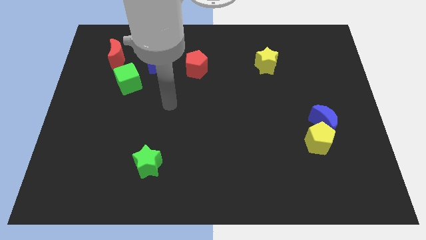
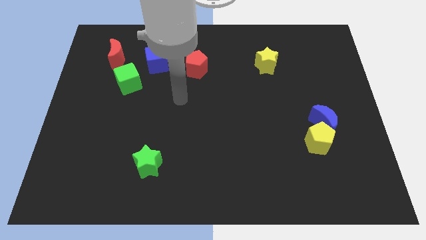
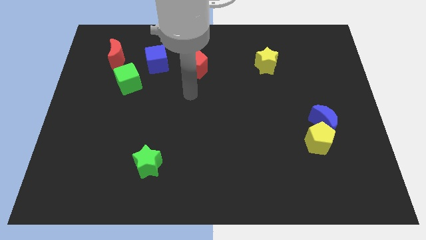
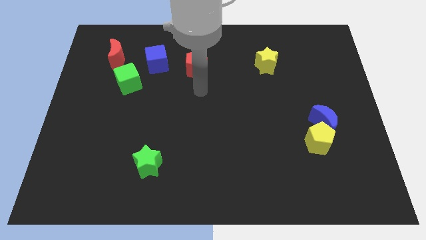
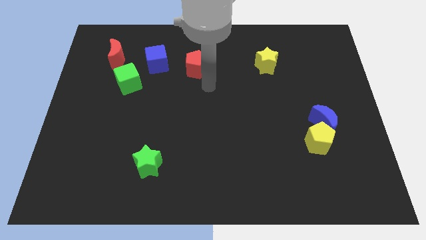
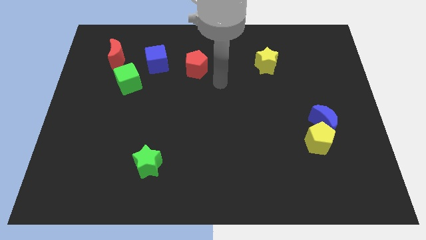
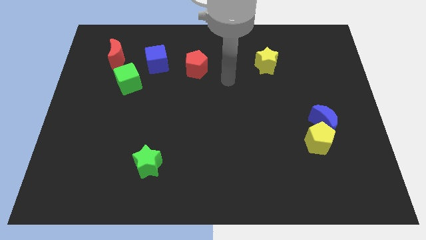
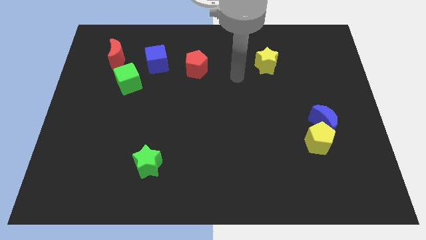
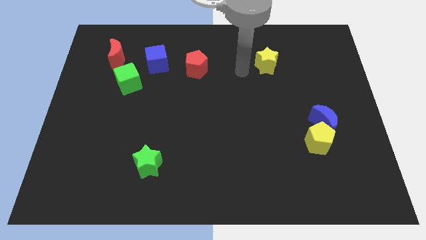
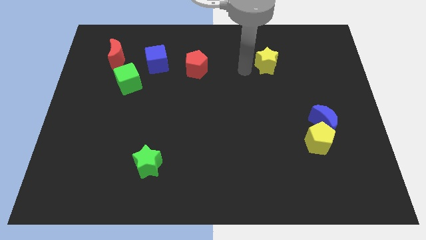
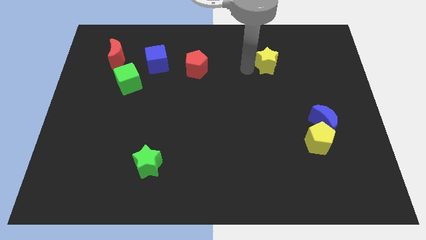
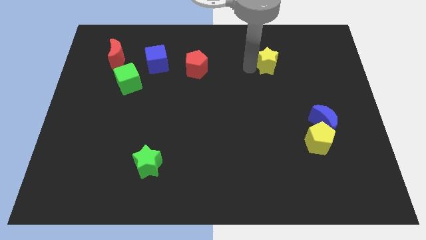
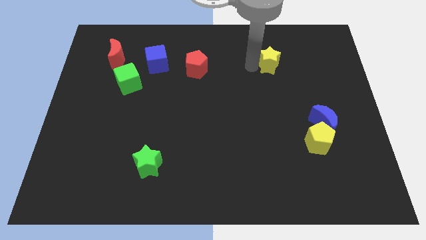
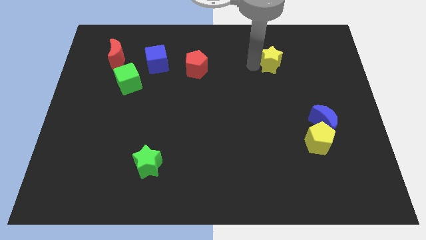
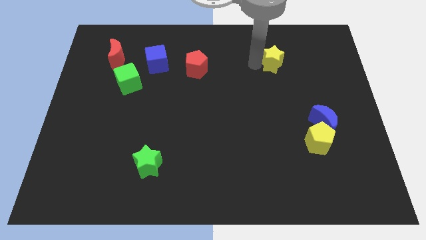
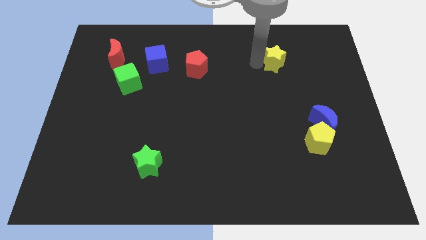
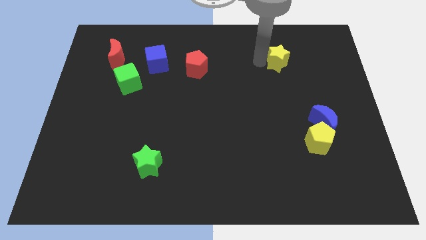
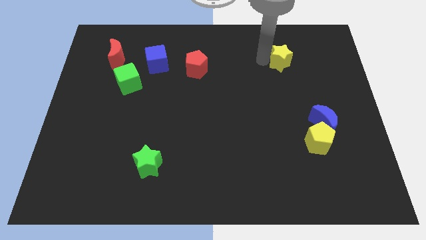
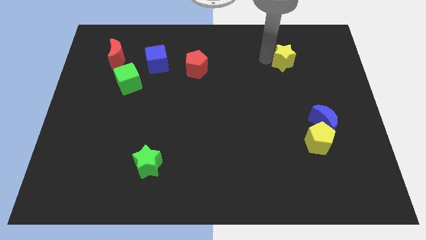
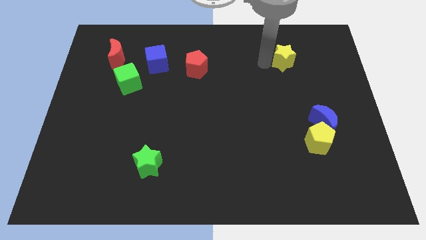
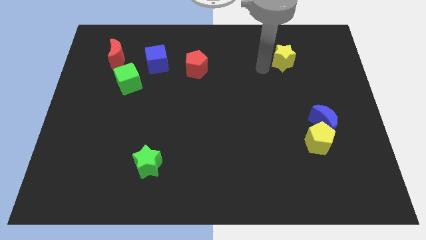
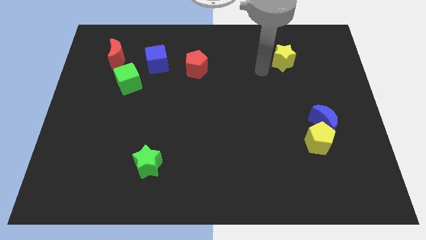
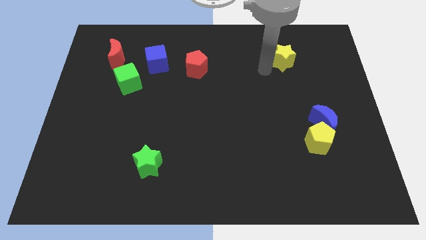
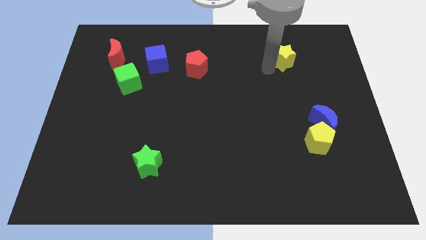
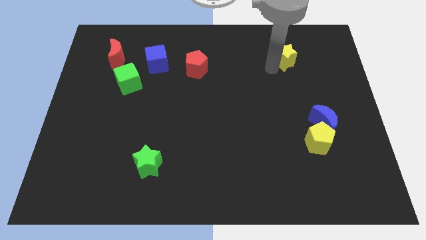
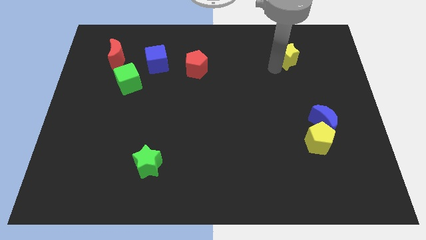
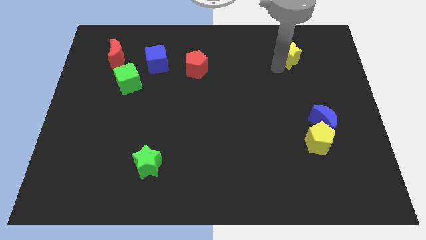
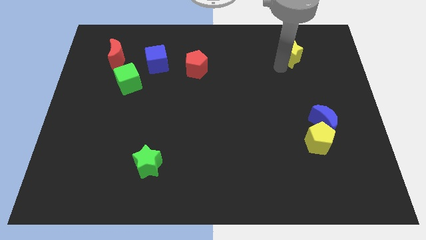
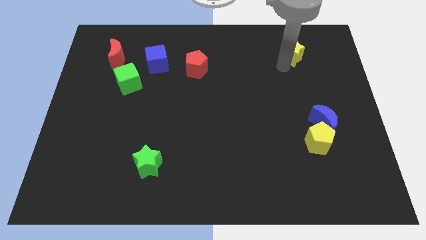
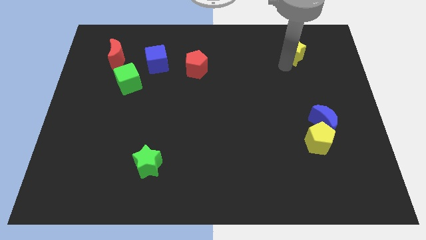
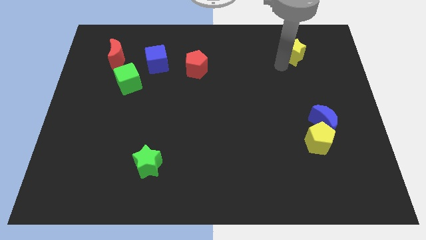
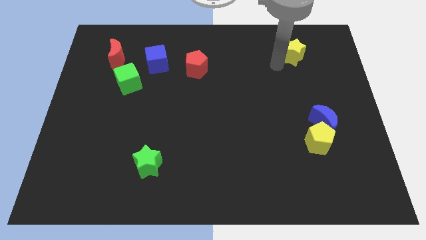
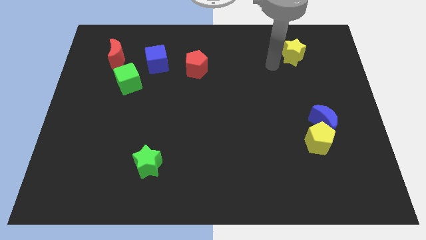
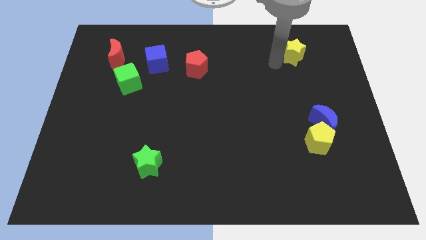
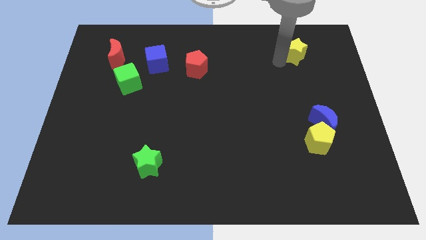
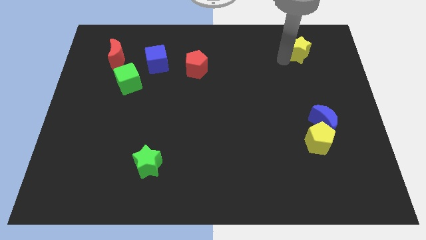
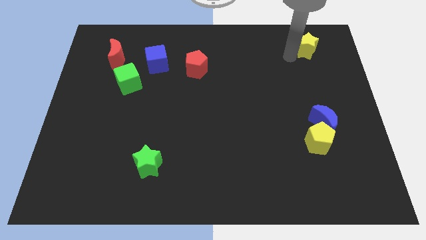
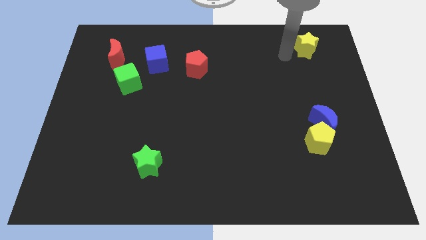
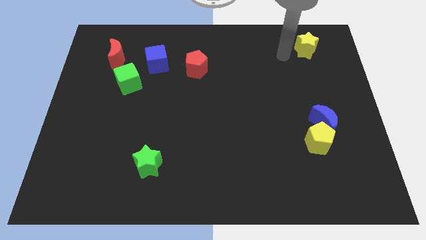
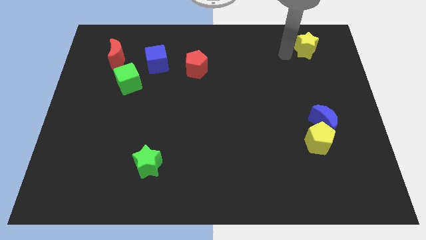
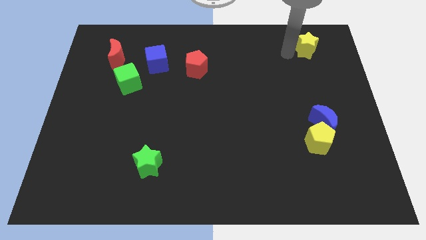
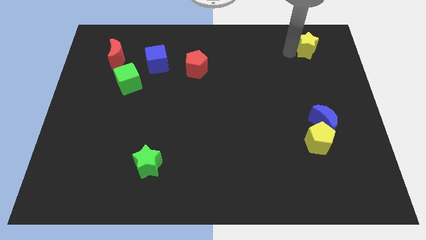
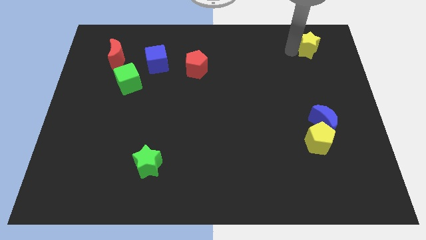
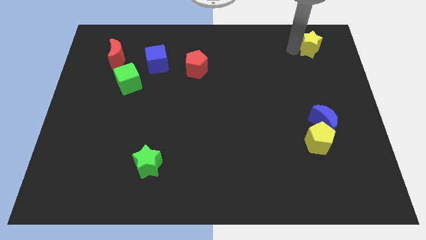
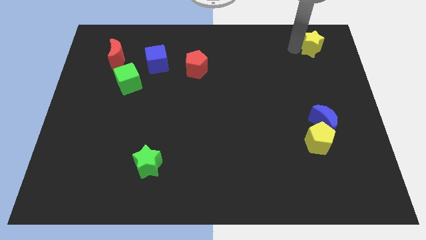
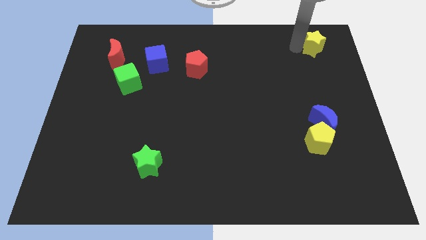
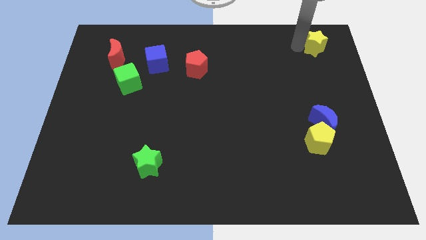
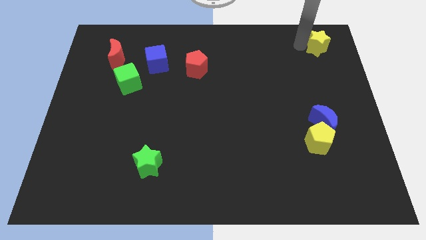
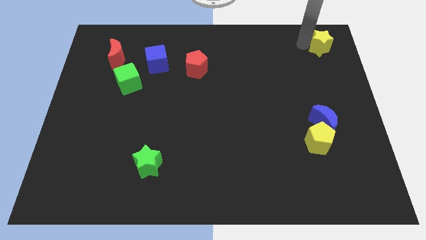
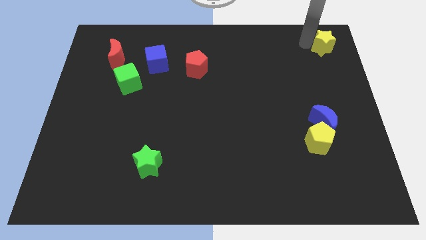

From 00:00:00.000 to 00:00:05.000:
slide the yellow star to the top right corner

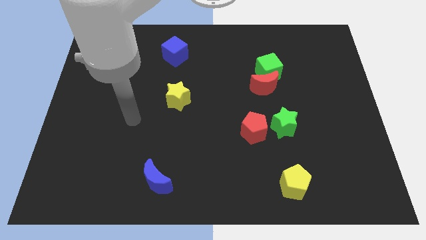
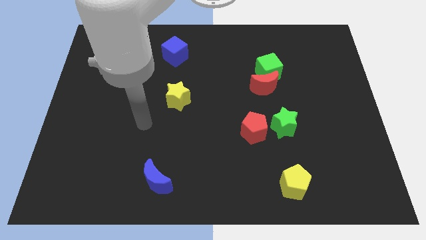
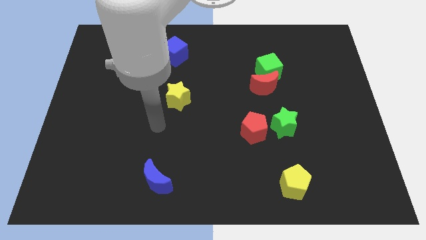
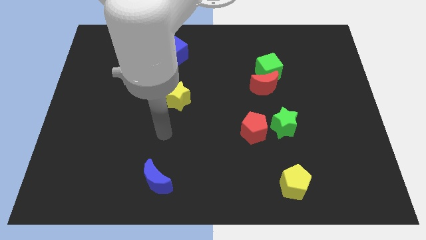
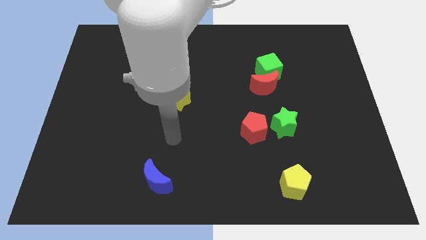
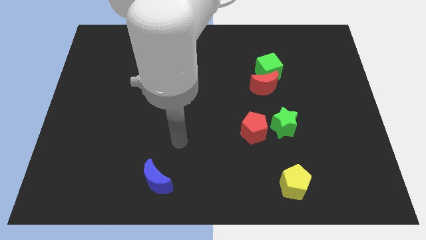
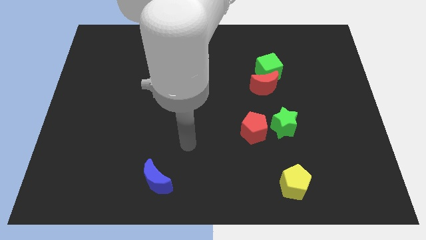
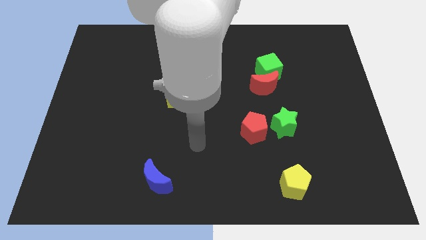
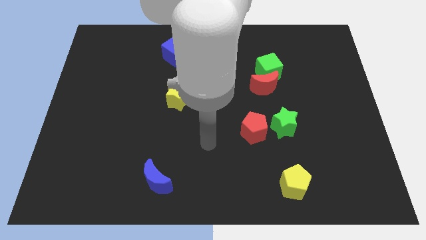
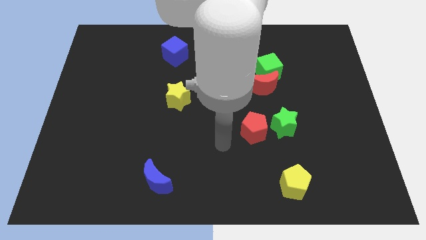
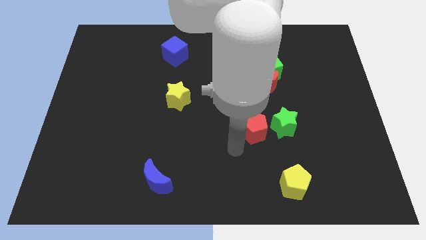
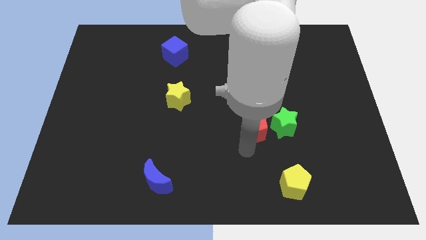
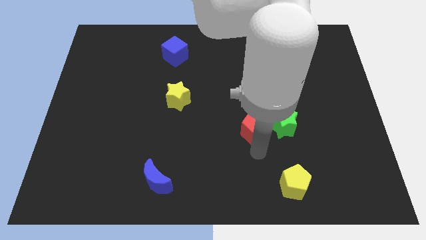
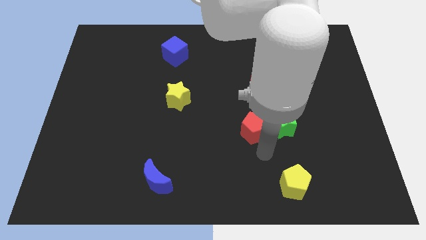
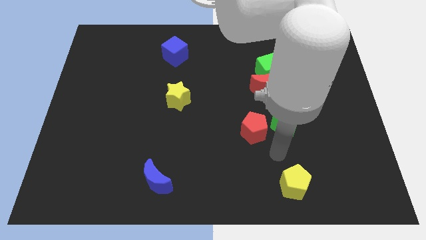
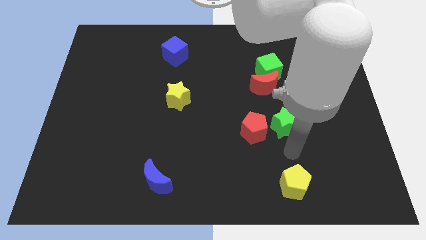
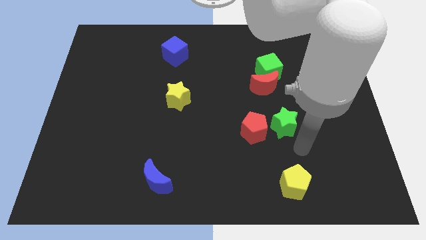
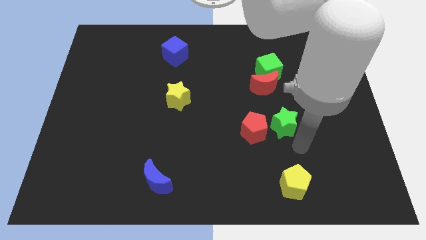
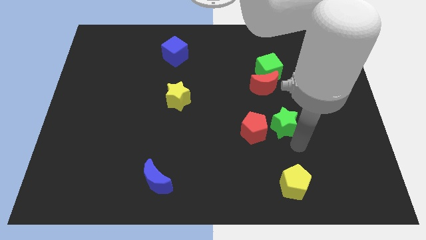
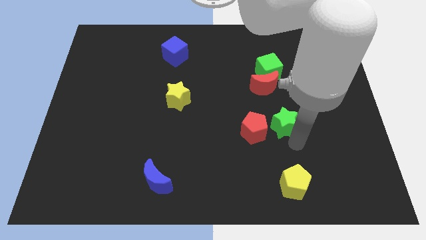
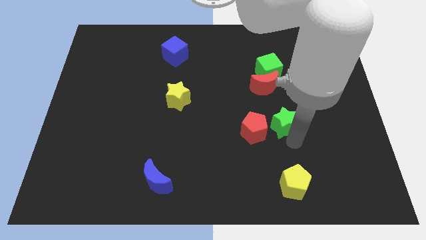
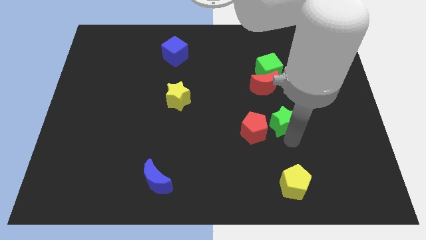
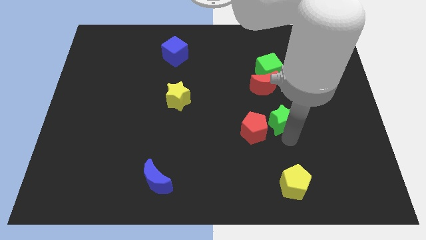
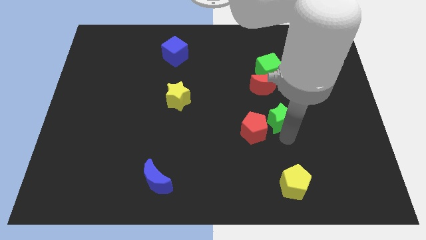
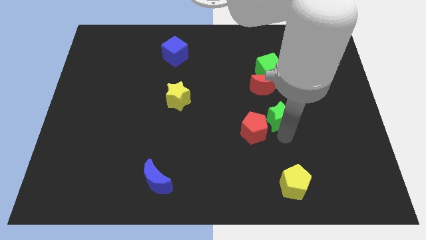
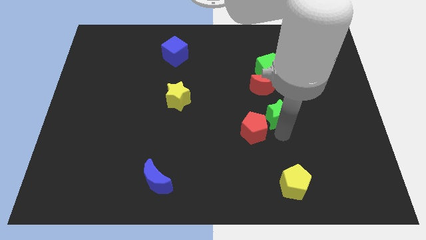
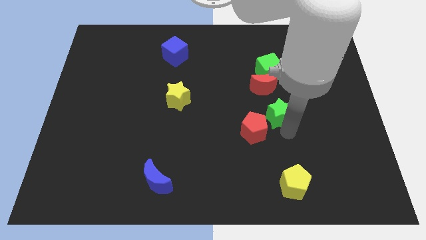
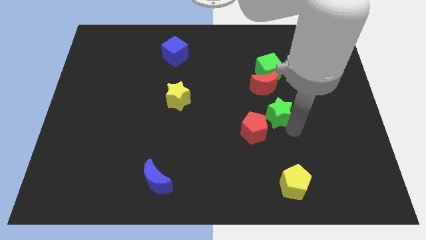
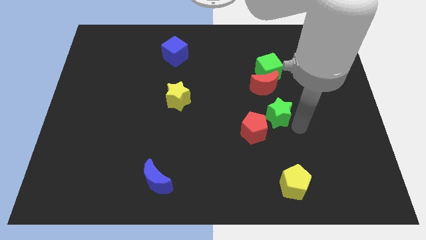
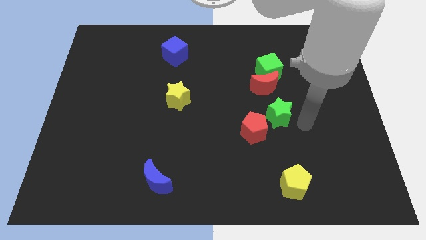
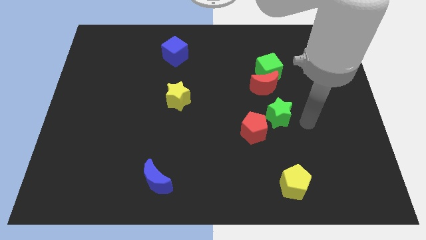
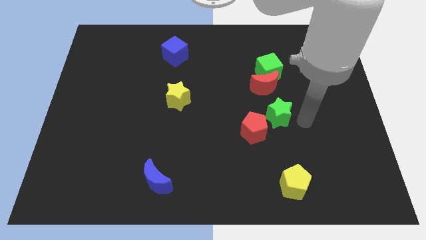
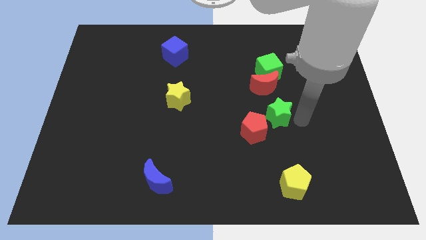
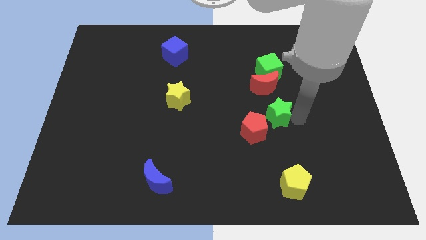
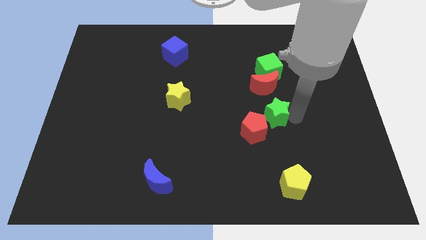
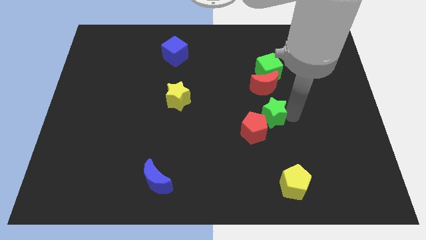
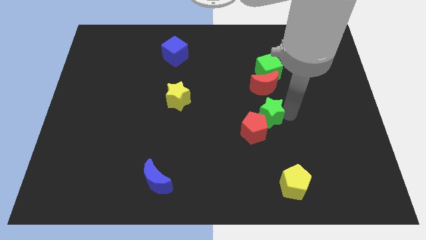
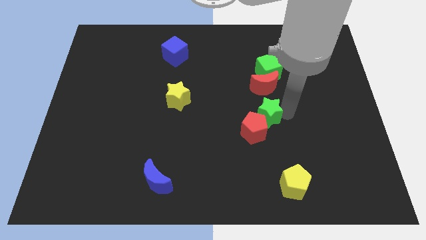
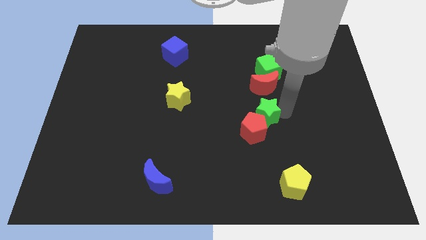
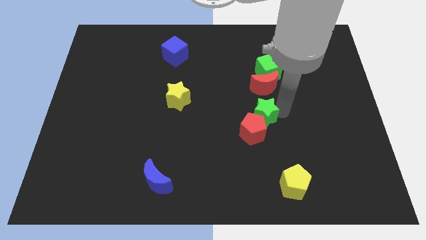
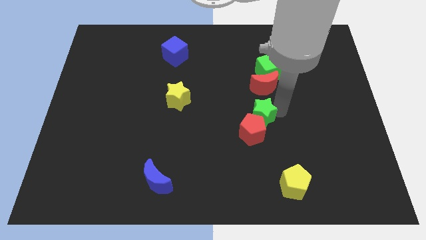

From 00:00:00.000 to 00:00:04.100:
move the green star to the center
